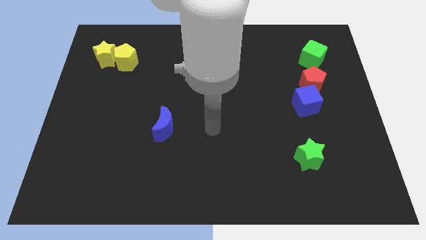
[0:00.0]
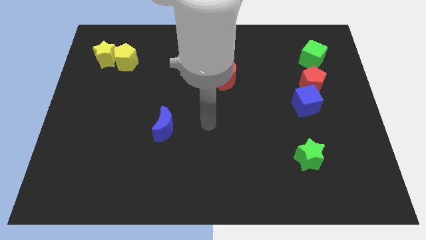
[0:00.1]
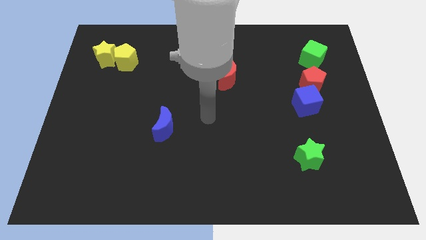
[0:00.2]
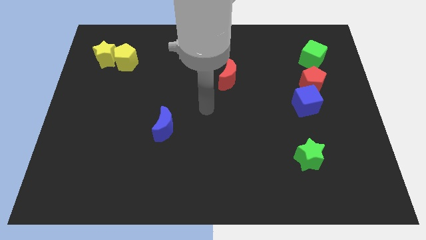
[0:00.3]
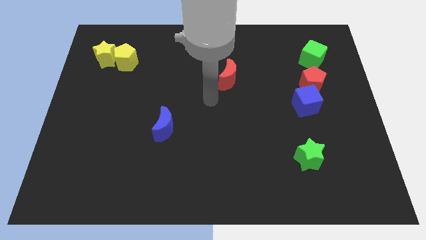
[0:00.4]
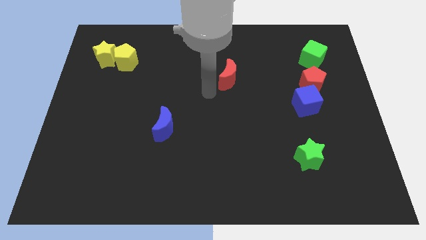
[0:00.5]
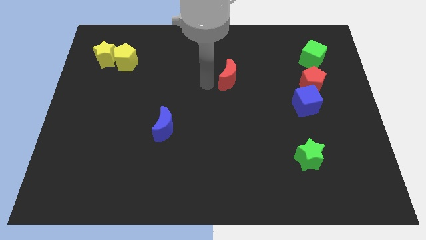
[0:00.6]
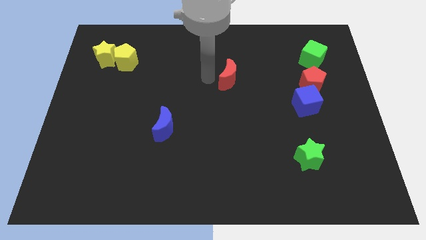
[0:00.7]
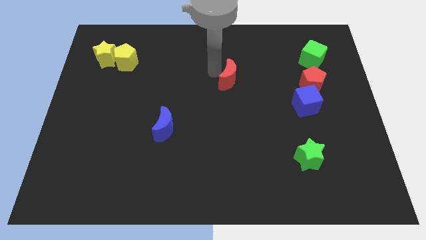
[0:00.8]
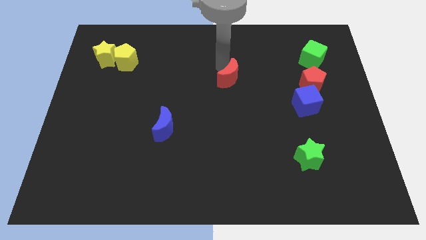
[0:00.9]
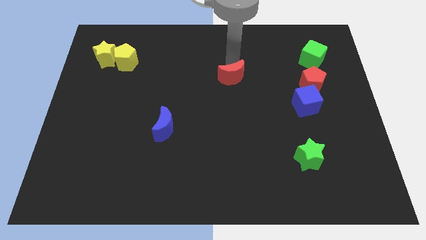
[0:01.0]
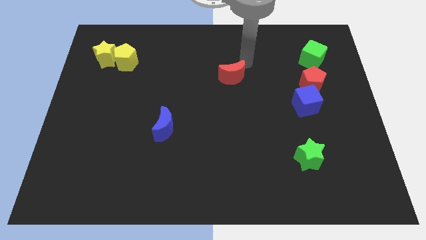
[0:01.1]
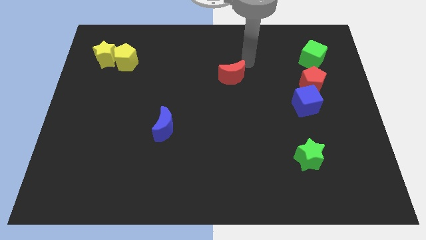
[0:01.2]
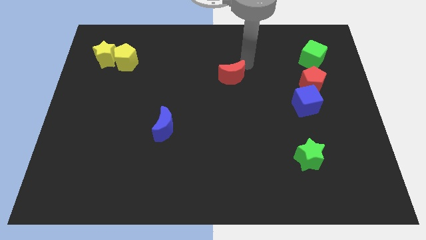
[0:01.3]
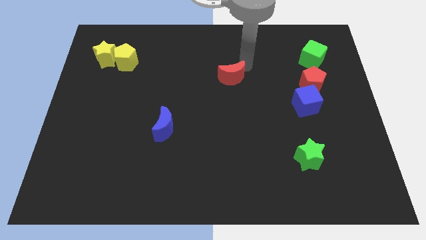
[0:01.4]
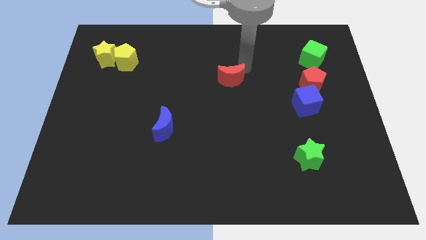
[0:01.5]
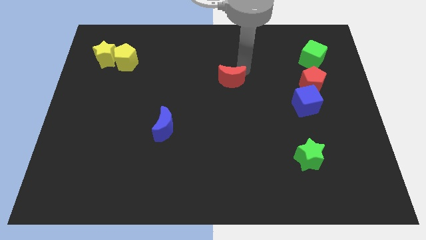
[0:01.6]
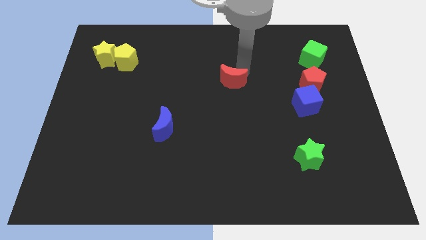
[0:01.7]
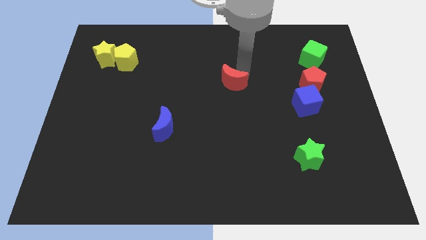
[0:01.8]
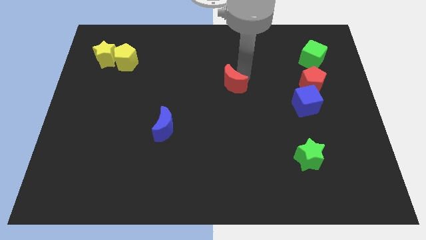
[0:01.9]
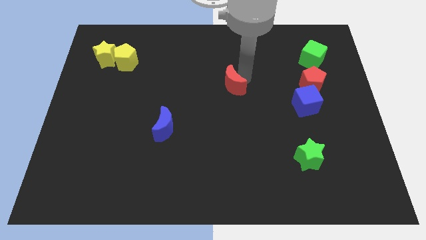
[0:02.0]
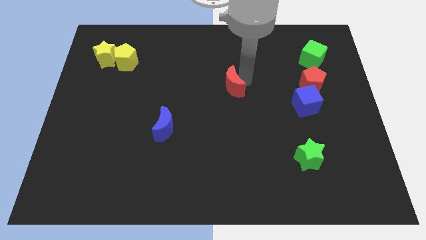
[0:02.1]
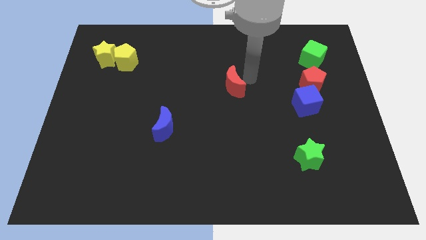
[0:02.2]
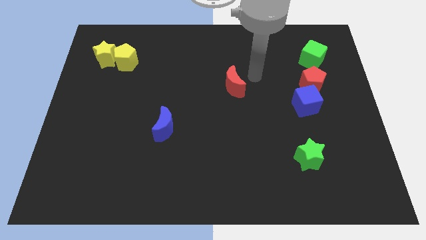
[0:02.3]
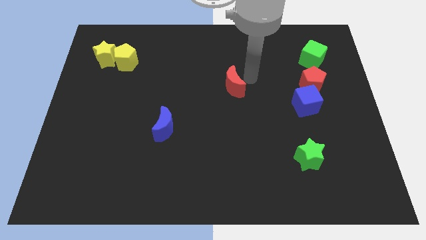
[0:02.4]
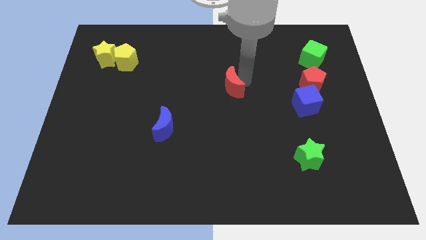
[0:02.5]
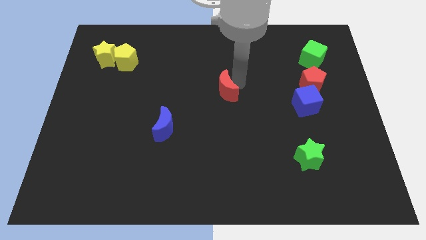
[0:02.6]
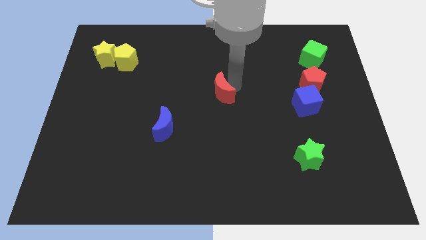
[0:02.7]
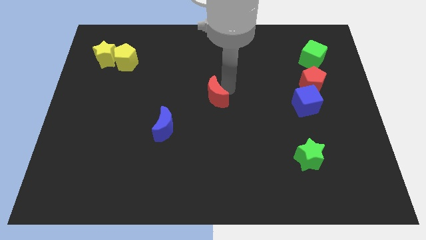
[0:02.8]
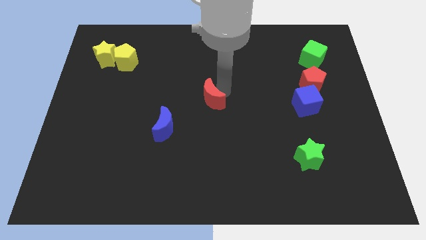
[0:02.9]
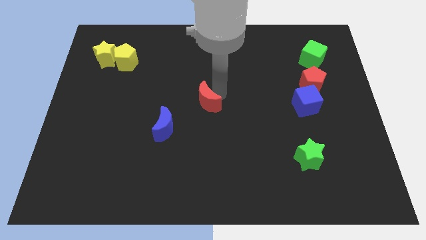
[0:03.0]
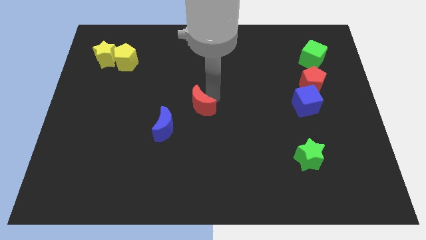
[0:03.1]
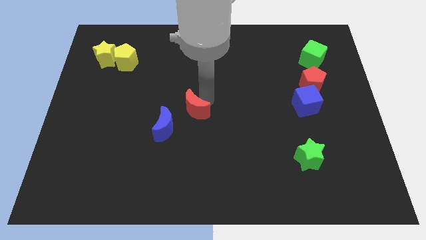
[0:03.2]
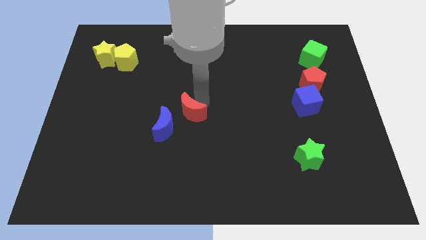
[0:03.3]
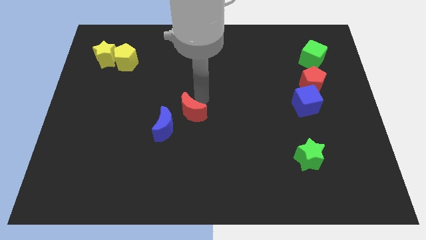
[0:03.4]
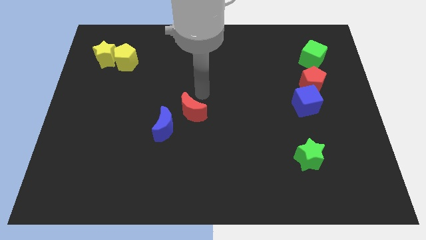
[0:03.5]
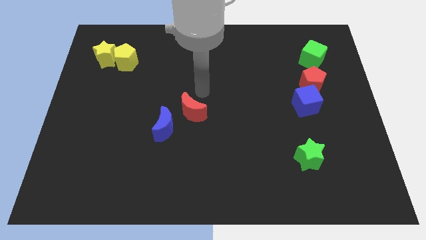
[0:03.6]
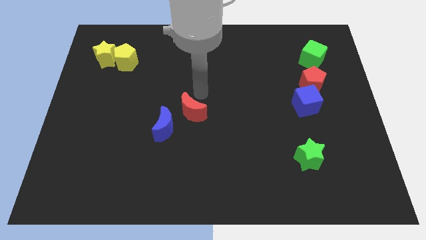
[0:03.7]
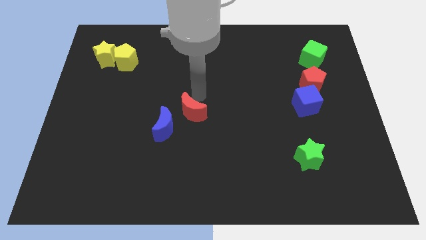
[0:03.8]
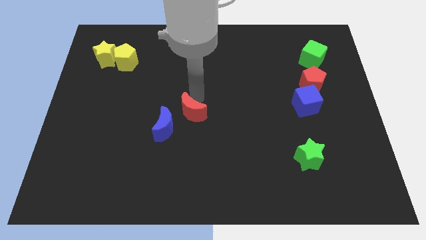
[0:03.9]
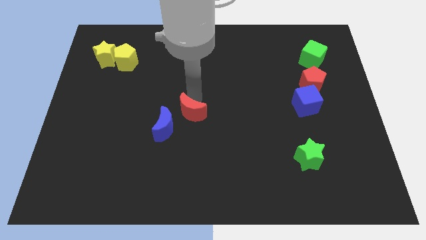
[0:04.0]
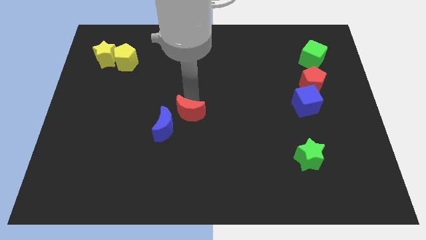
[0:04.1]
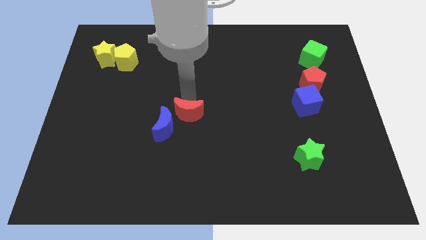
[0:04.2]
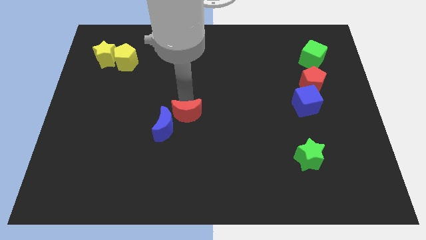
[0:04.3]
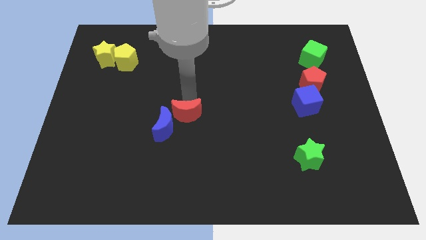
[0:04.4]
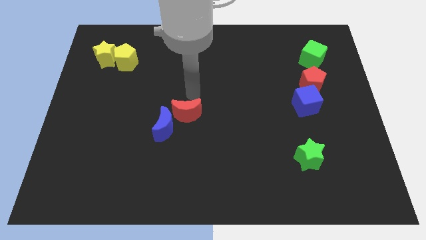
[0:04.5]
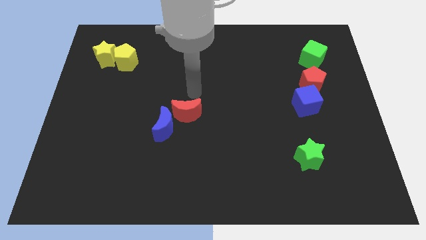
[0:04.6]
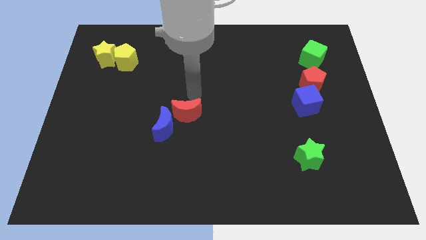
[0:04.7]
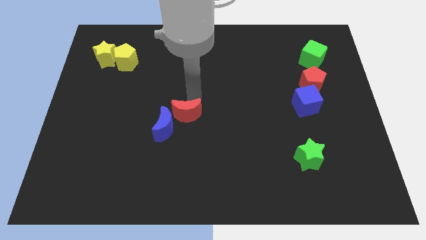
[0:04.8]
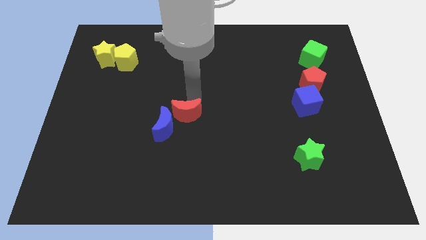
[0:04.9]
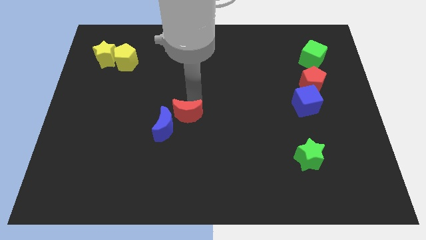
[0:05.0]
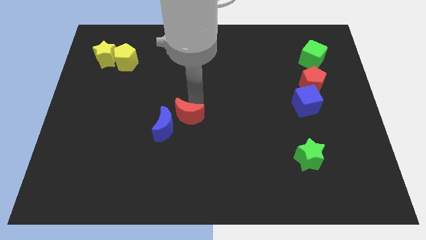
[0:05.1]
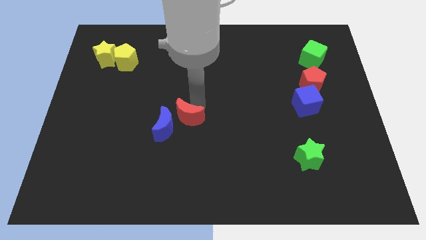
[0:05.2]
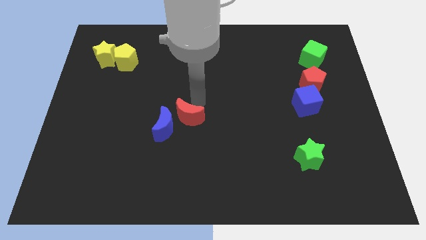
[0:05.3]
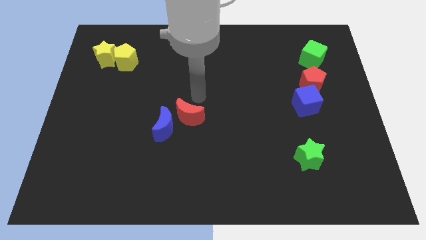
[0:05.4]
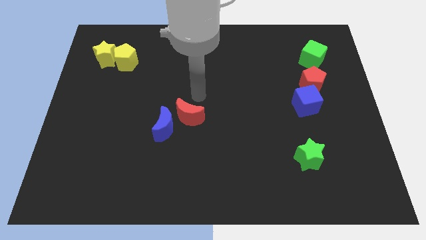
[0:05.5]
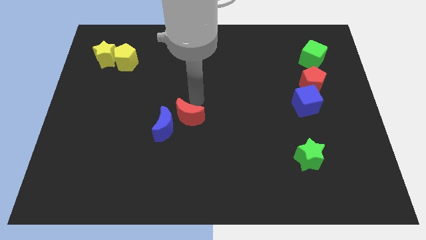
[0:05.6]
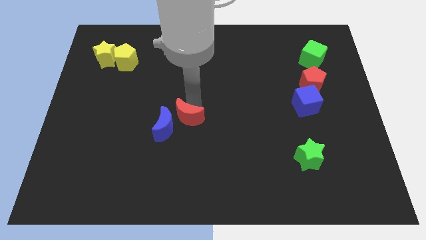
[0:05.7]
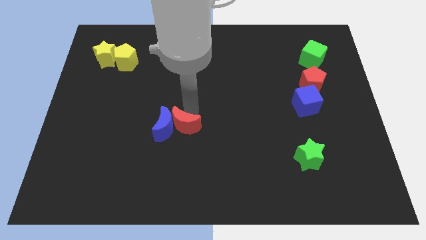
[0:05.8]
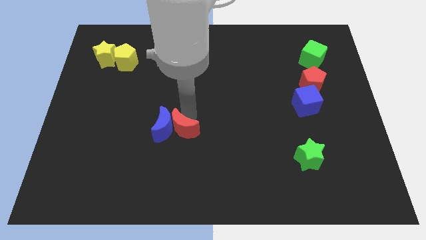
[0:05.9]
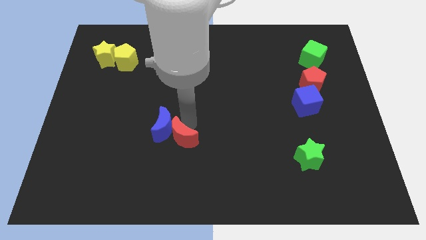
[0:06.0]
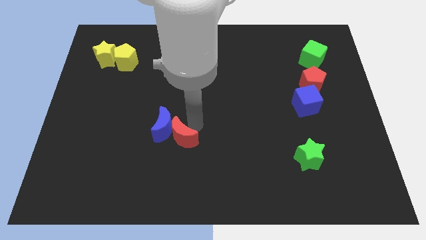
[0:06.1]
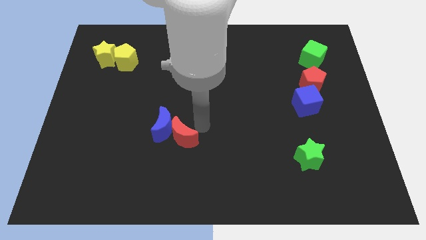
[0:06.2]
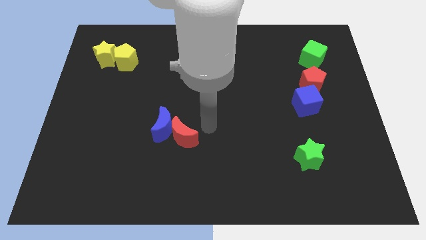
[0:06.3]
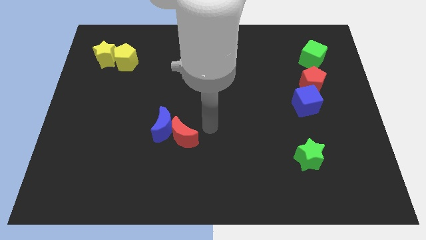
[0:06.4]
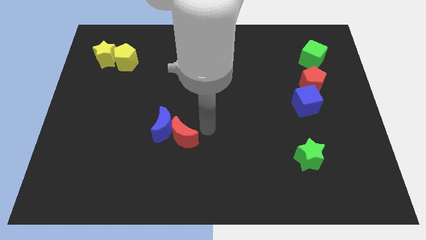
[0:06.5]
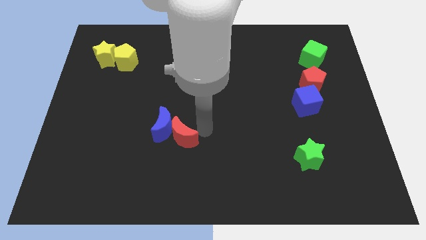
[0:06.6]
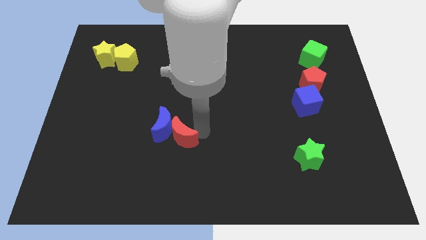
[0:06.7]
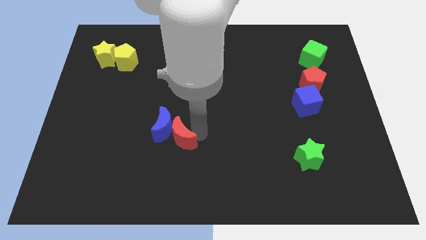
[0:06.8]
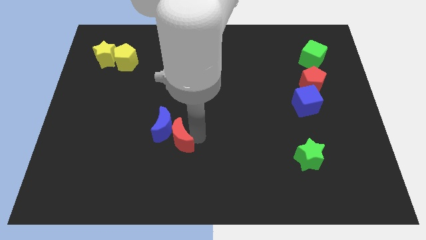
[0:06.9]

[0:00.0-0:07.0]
move the red moon downwards and then to the left

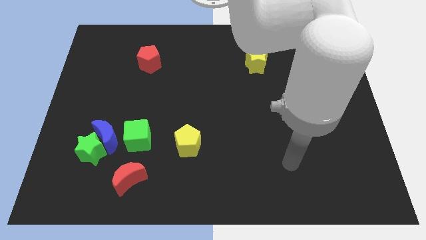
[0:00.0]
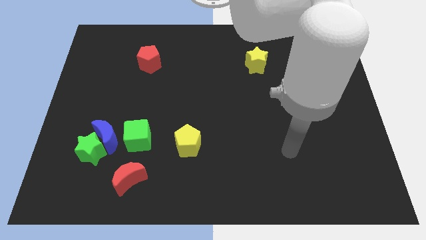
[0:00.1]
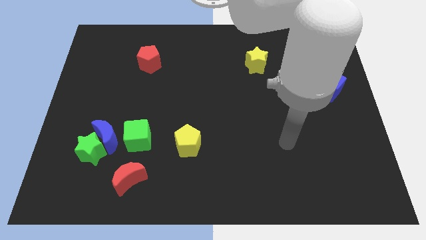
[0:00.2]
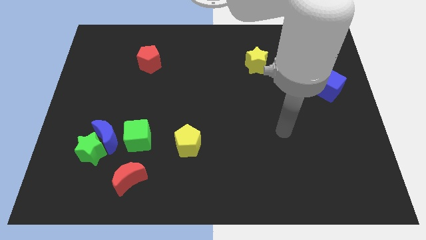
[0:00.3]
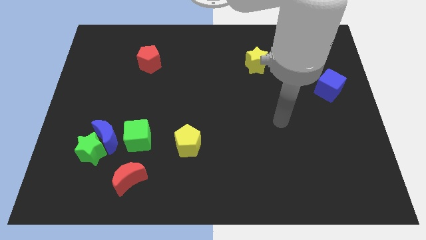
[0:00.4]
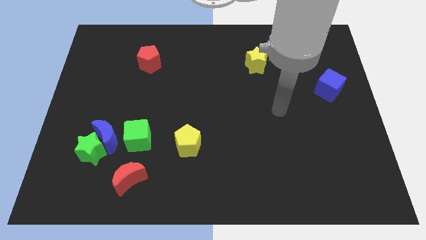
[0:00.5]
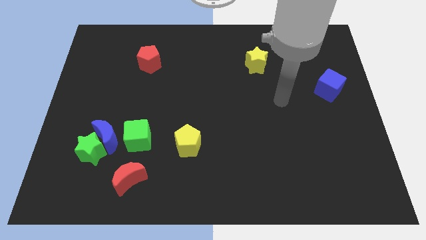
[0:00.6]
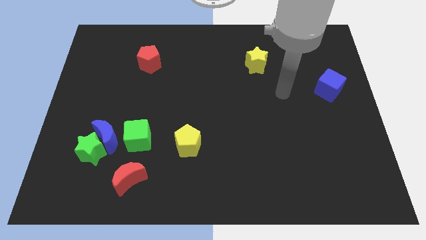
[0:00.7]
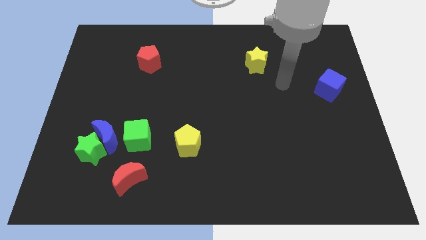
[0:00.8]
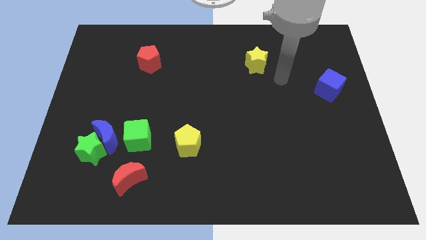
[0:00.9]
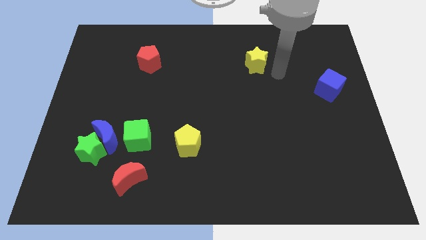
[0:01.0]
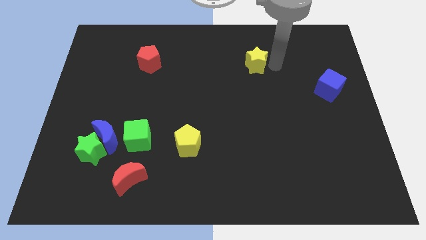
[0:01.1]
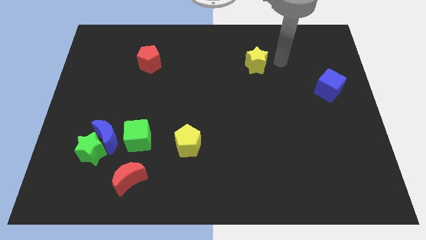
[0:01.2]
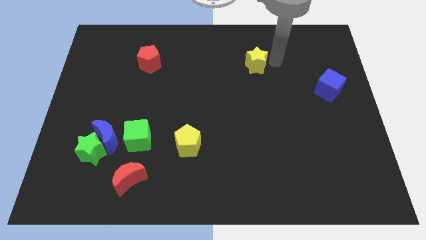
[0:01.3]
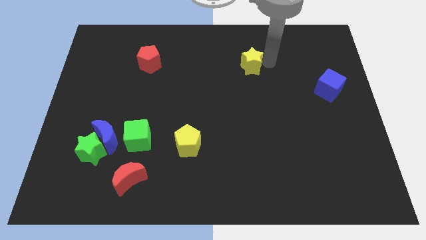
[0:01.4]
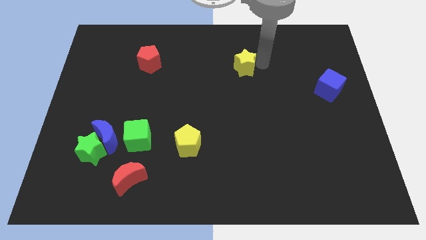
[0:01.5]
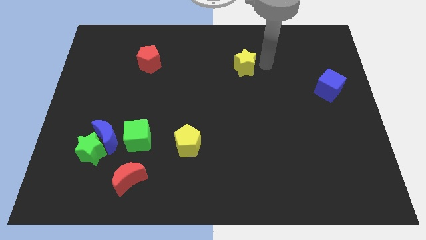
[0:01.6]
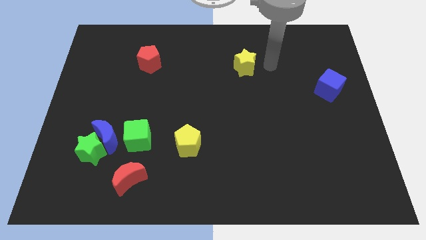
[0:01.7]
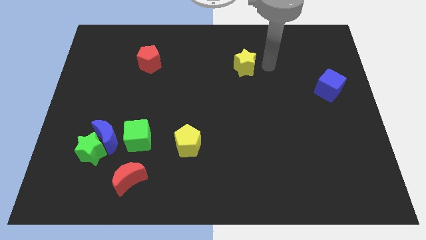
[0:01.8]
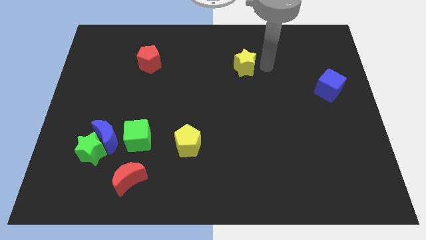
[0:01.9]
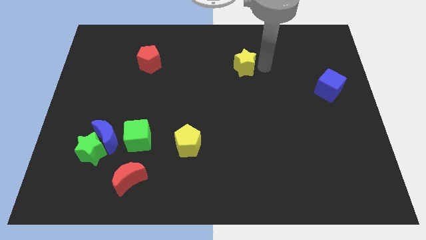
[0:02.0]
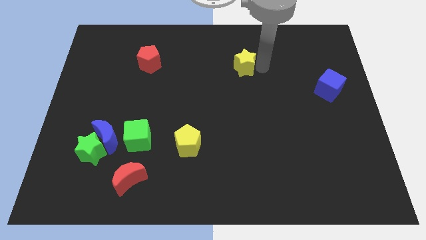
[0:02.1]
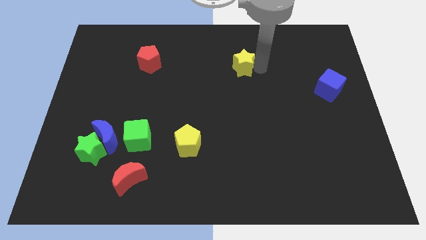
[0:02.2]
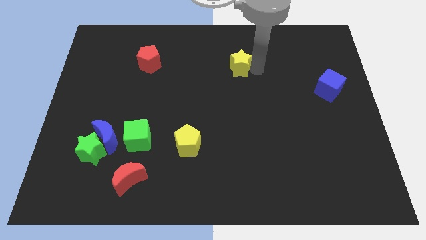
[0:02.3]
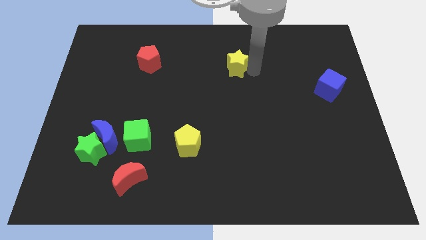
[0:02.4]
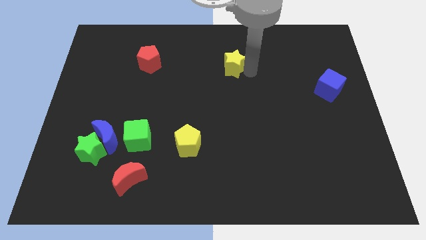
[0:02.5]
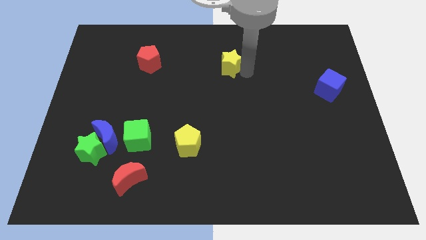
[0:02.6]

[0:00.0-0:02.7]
move the yellow star a little bit left
